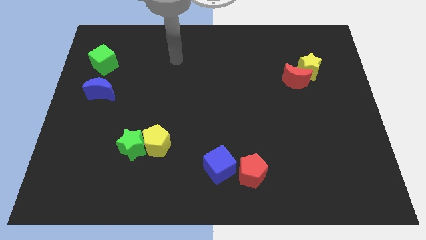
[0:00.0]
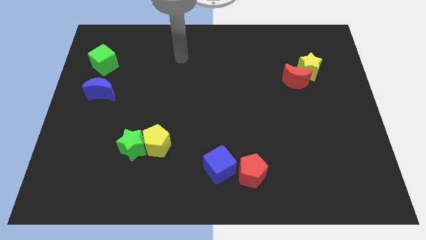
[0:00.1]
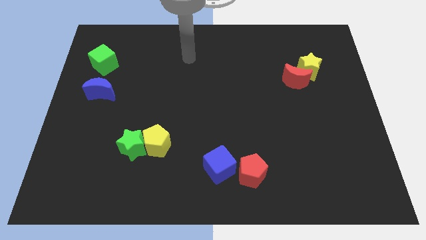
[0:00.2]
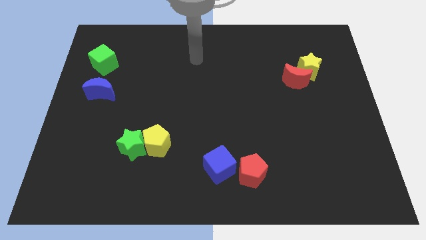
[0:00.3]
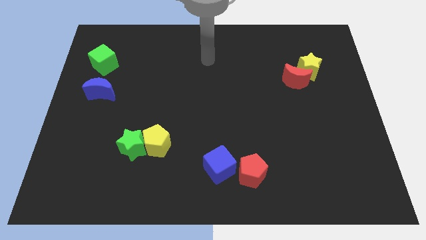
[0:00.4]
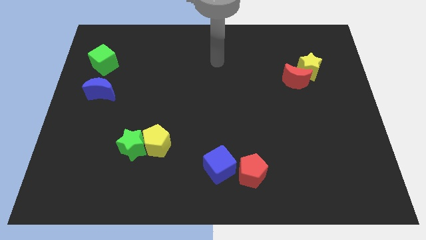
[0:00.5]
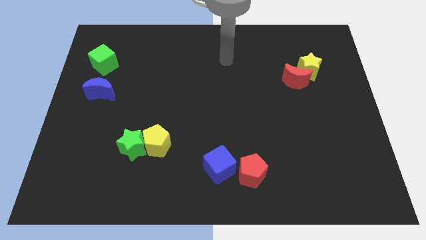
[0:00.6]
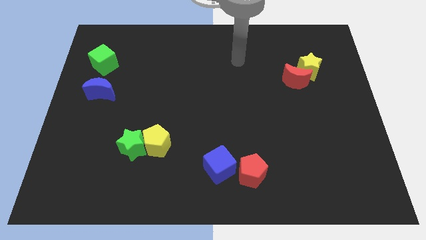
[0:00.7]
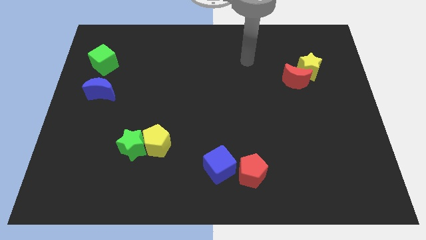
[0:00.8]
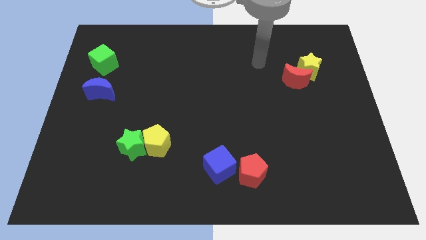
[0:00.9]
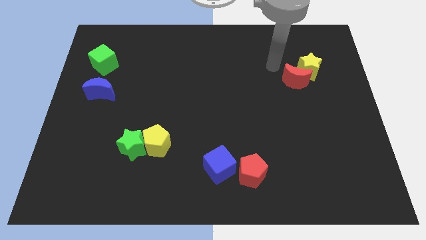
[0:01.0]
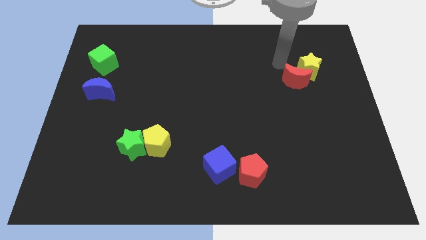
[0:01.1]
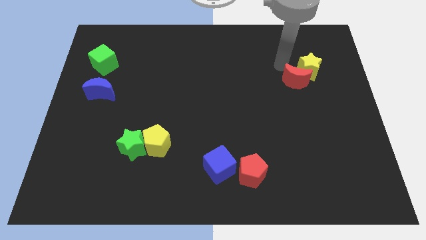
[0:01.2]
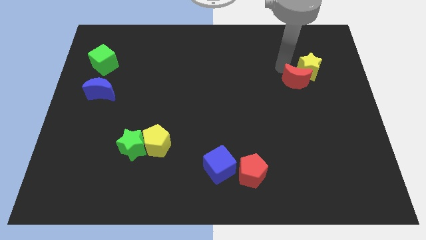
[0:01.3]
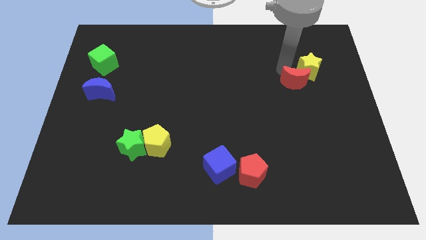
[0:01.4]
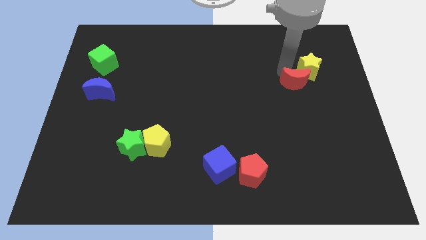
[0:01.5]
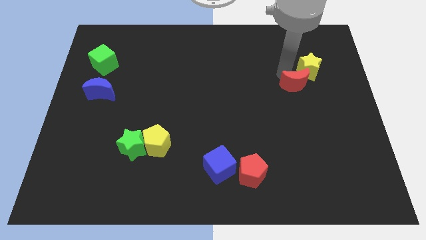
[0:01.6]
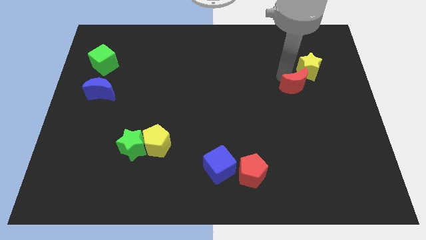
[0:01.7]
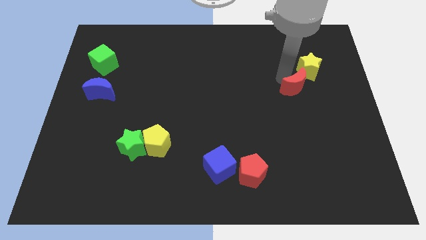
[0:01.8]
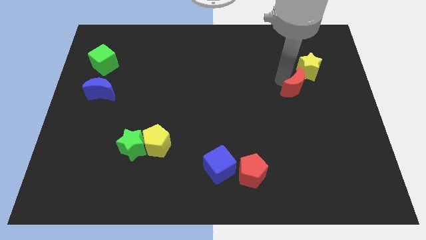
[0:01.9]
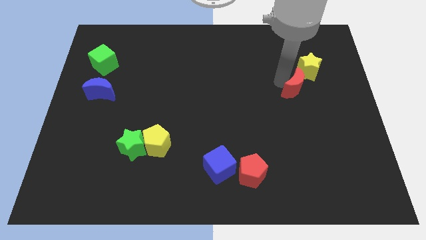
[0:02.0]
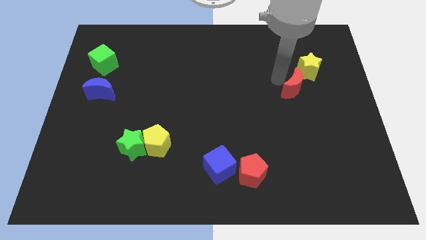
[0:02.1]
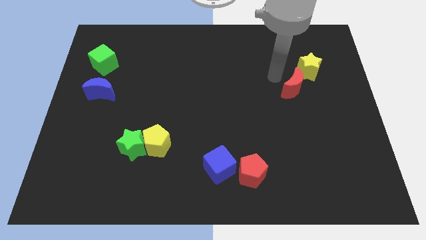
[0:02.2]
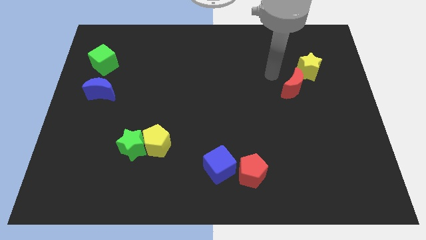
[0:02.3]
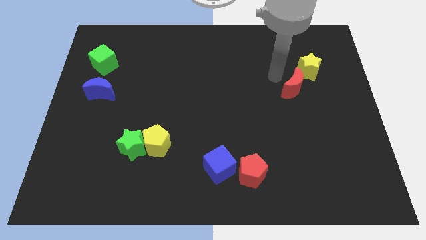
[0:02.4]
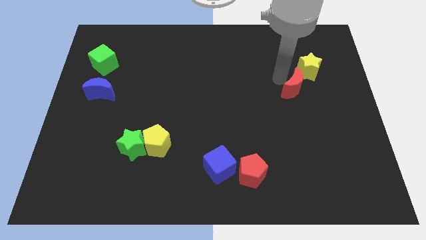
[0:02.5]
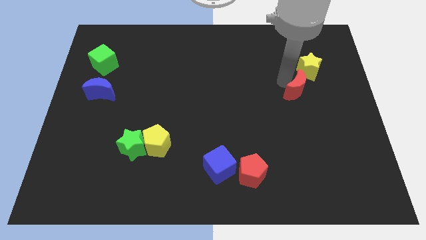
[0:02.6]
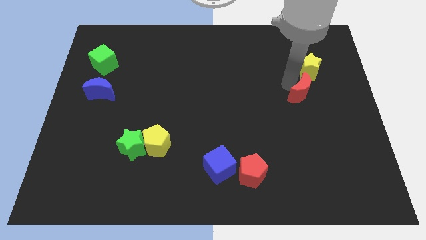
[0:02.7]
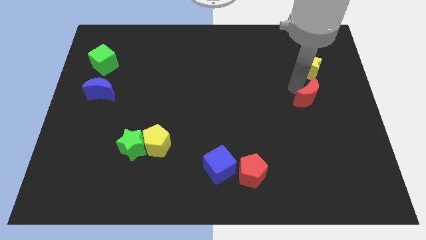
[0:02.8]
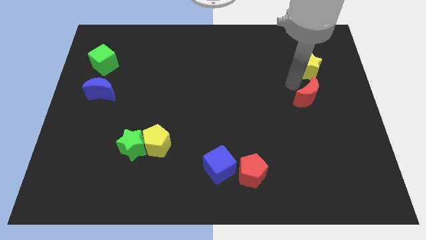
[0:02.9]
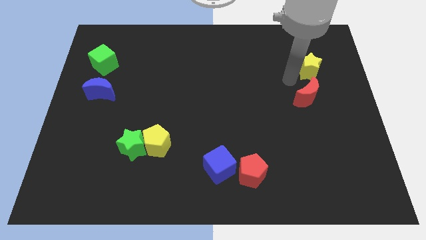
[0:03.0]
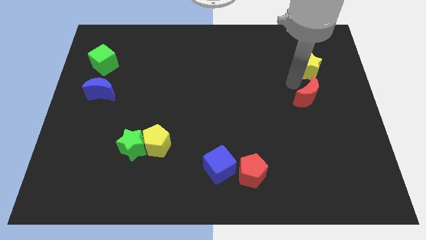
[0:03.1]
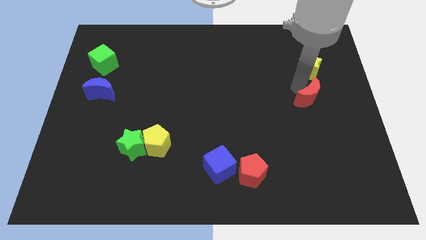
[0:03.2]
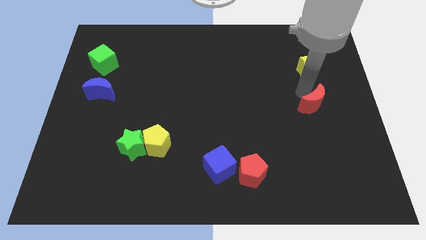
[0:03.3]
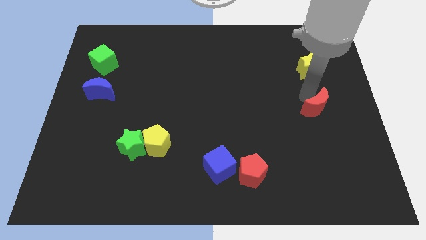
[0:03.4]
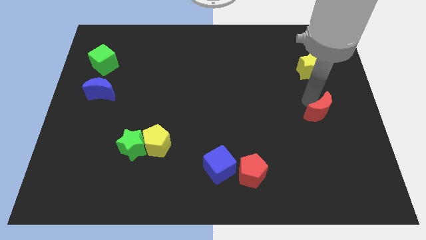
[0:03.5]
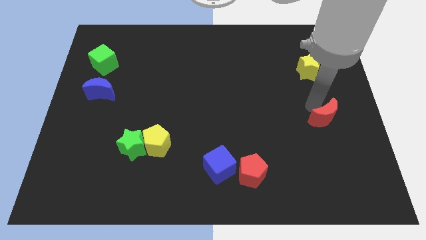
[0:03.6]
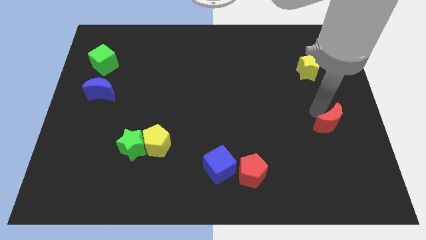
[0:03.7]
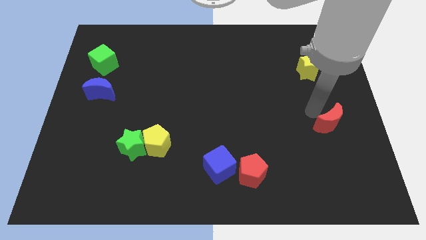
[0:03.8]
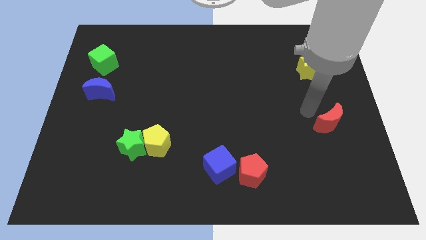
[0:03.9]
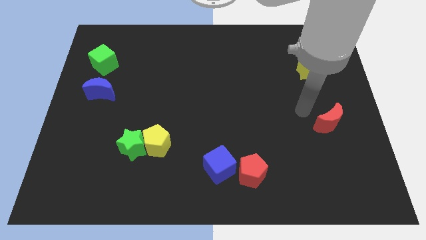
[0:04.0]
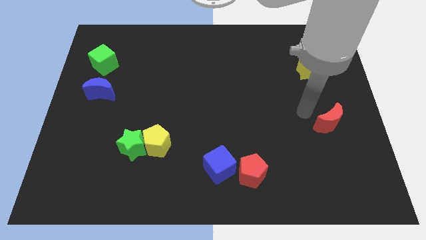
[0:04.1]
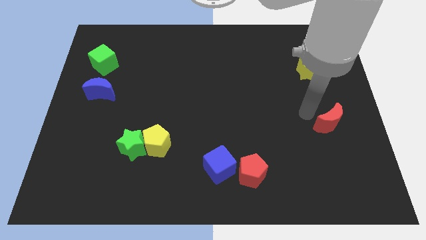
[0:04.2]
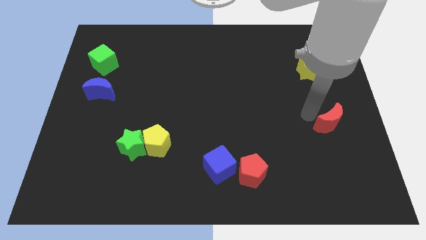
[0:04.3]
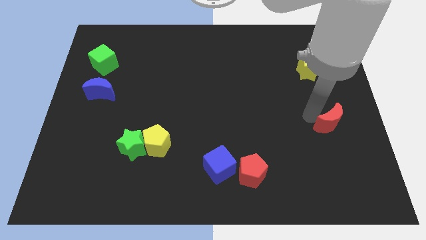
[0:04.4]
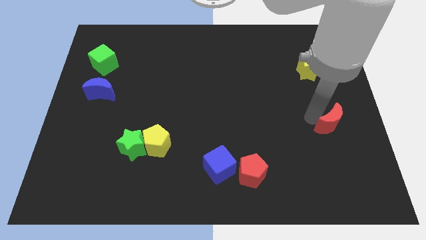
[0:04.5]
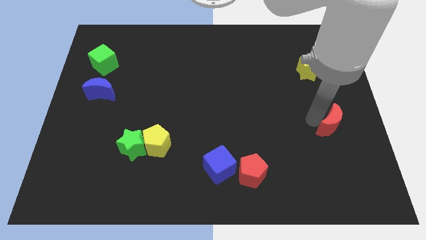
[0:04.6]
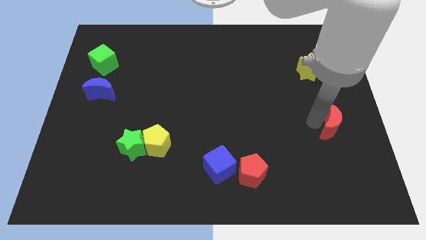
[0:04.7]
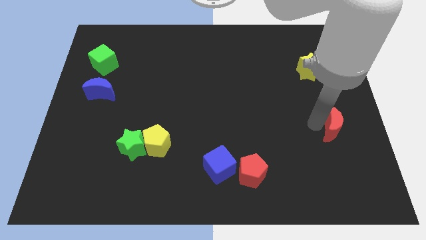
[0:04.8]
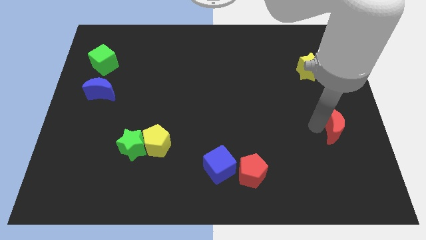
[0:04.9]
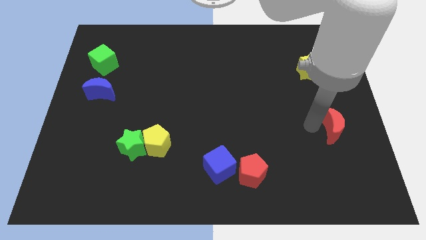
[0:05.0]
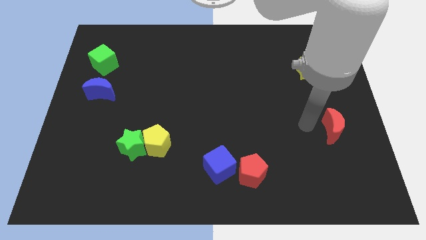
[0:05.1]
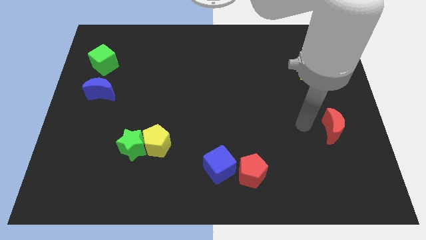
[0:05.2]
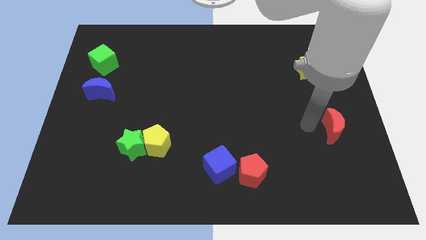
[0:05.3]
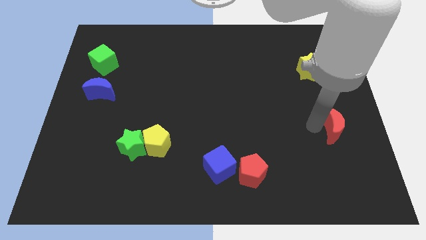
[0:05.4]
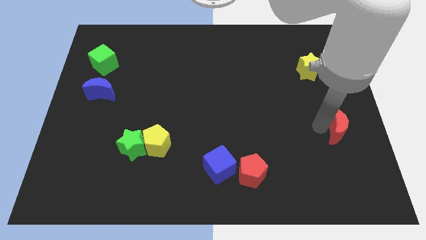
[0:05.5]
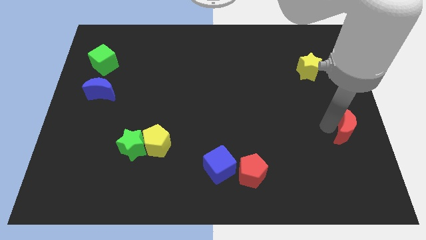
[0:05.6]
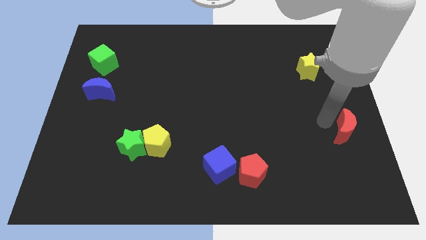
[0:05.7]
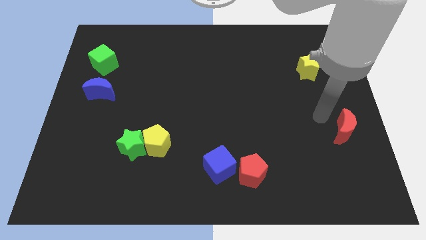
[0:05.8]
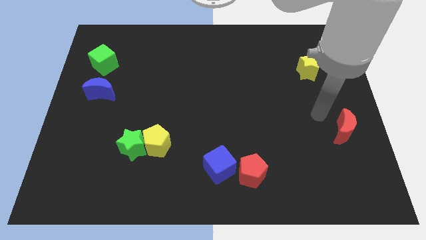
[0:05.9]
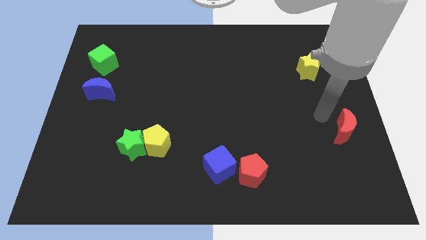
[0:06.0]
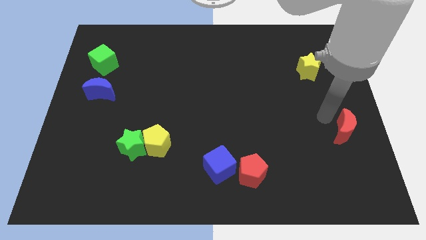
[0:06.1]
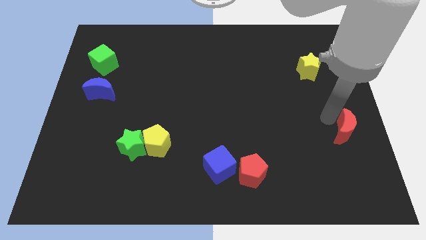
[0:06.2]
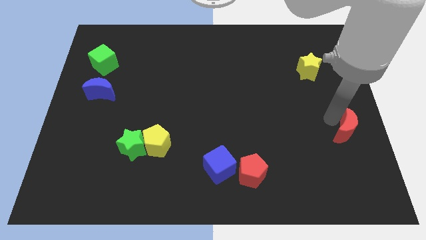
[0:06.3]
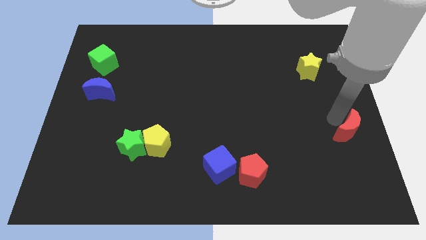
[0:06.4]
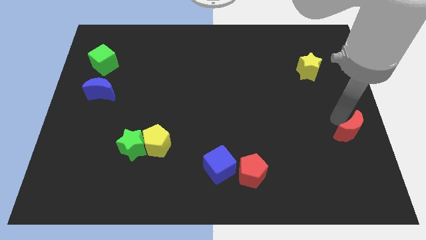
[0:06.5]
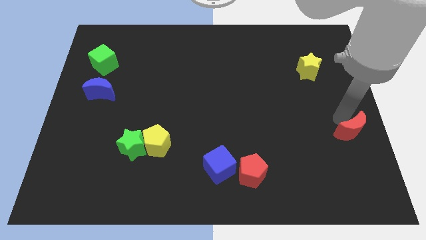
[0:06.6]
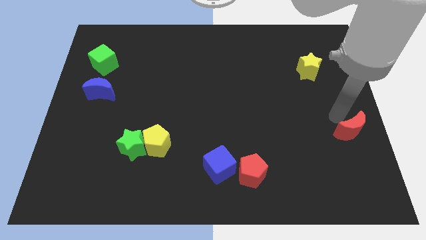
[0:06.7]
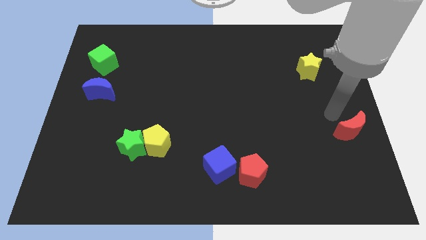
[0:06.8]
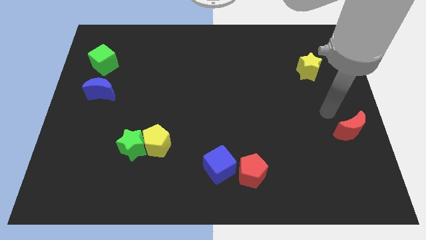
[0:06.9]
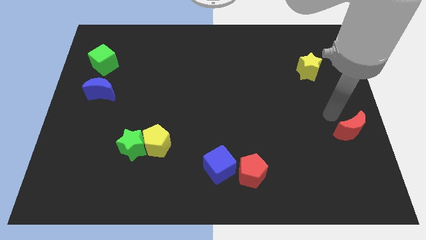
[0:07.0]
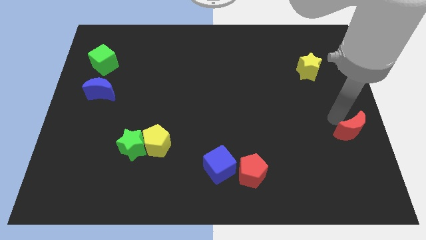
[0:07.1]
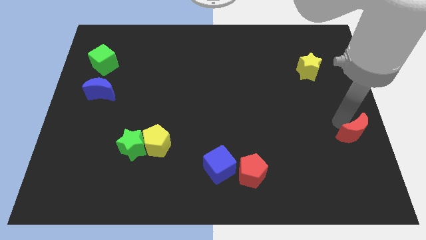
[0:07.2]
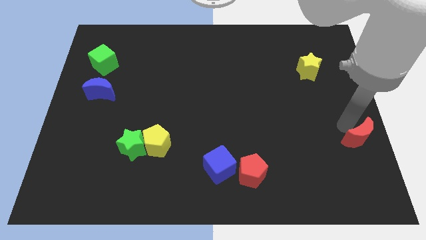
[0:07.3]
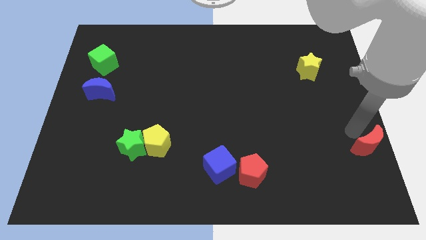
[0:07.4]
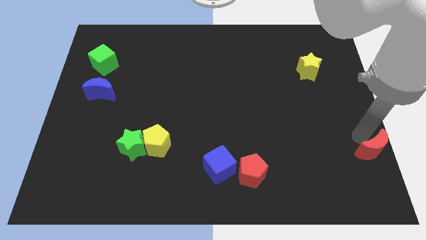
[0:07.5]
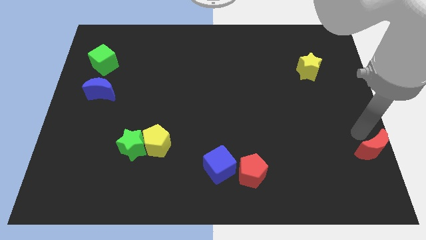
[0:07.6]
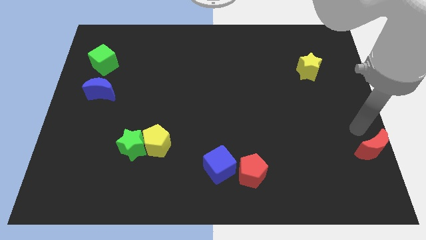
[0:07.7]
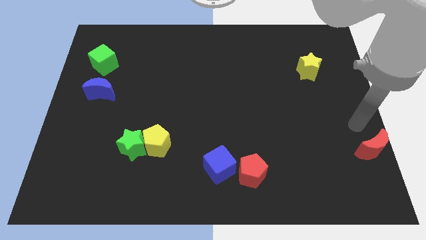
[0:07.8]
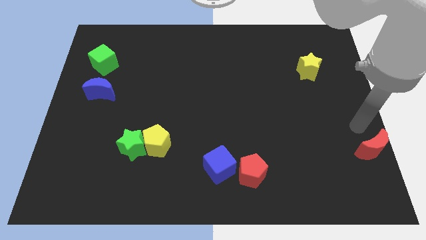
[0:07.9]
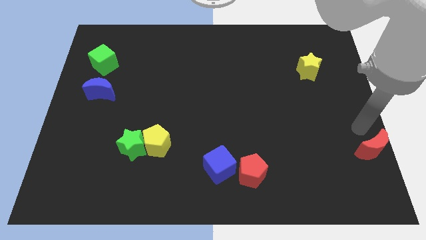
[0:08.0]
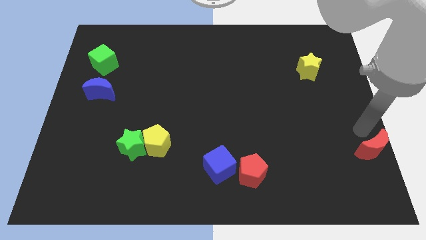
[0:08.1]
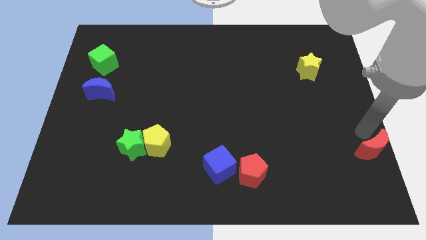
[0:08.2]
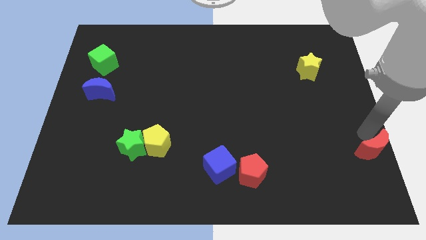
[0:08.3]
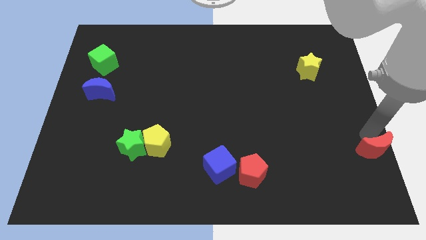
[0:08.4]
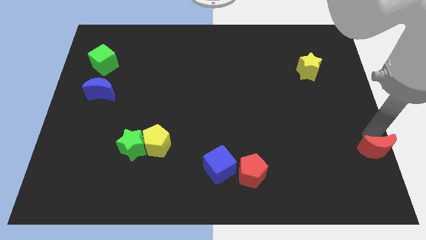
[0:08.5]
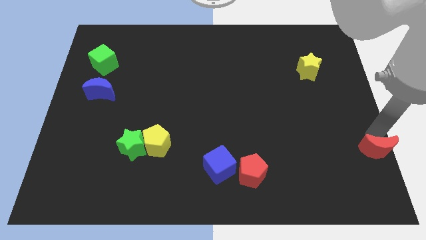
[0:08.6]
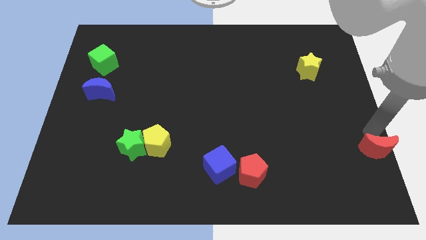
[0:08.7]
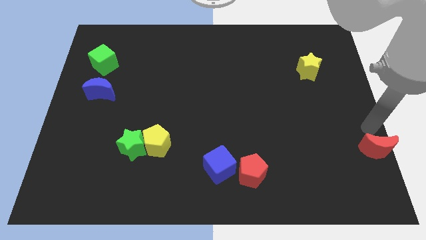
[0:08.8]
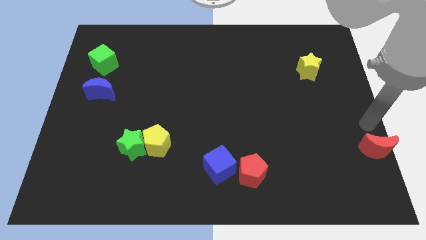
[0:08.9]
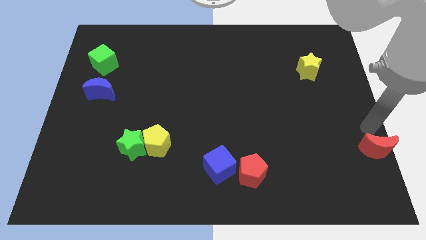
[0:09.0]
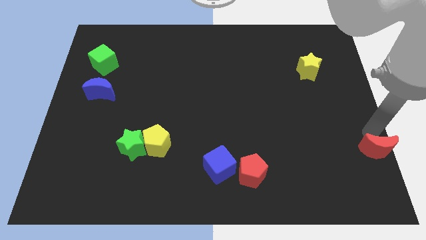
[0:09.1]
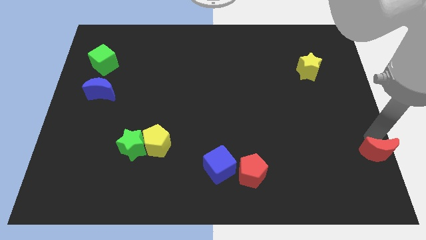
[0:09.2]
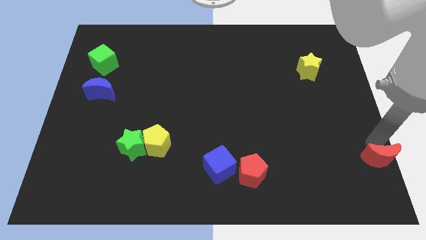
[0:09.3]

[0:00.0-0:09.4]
put the red moon to the lower right corner
